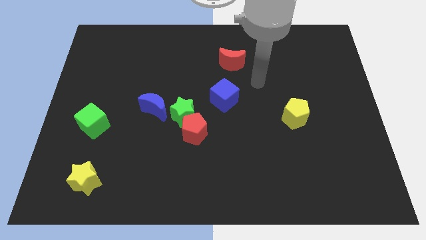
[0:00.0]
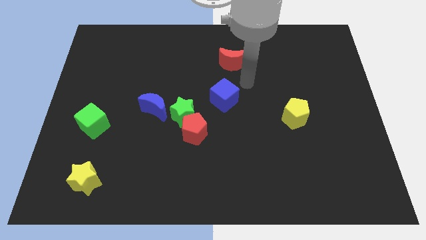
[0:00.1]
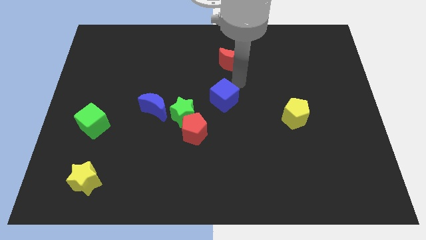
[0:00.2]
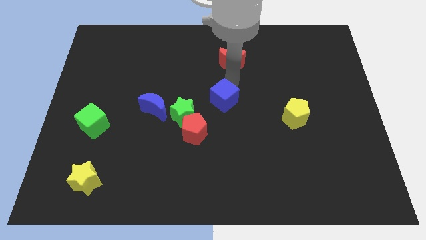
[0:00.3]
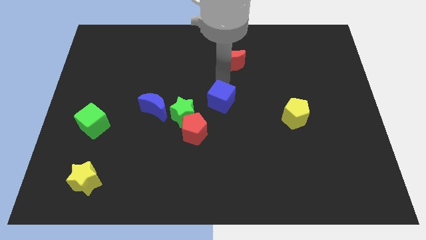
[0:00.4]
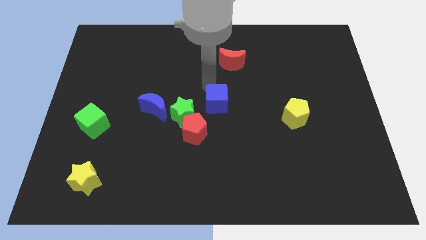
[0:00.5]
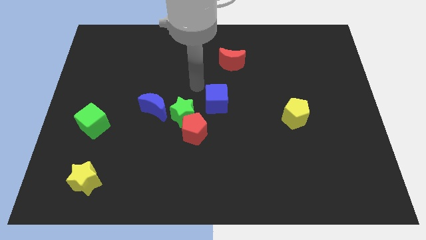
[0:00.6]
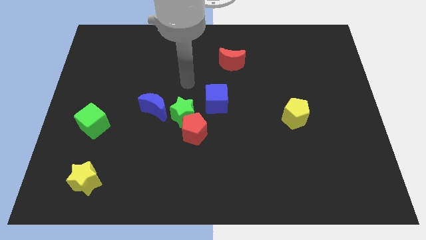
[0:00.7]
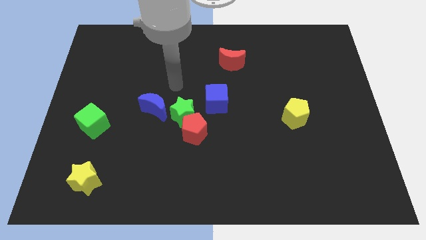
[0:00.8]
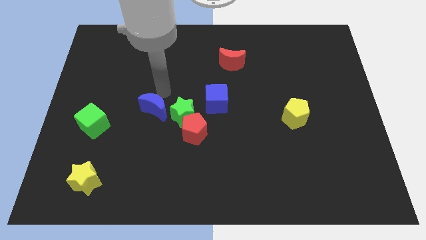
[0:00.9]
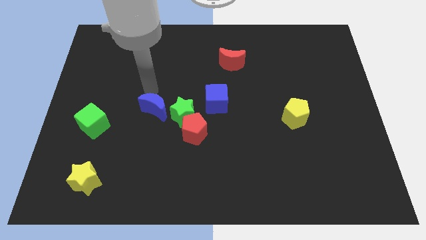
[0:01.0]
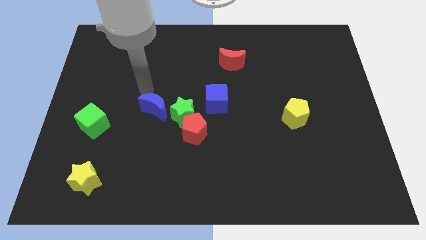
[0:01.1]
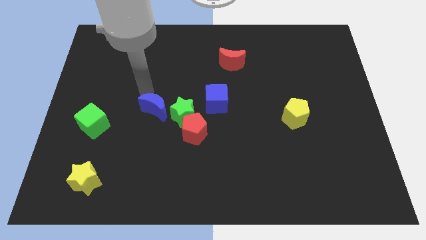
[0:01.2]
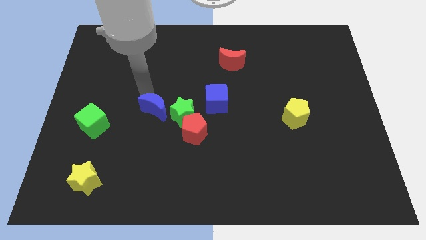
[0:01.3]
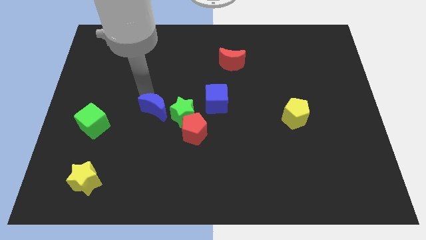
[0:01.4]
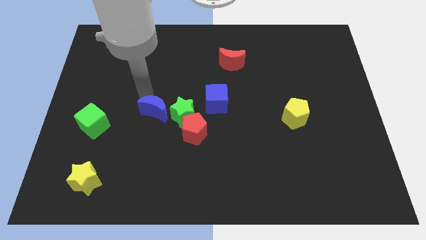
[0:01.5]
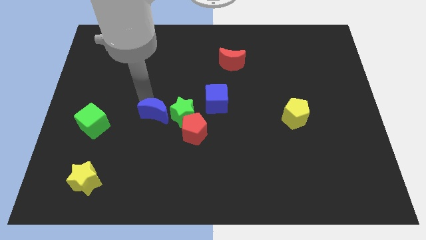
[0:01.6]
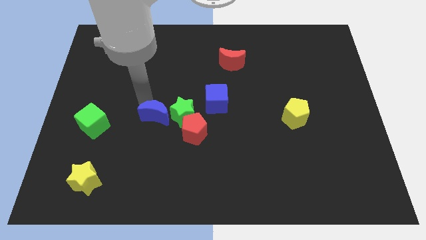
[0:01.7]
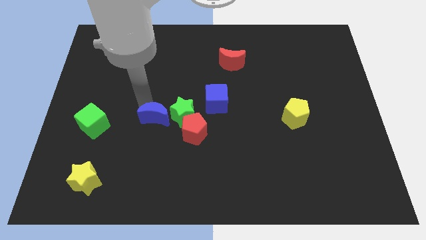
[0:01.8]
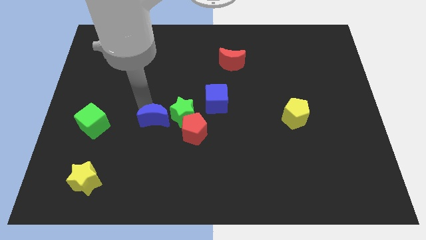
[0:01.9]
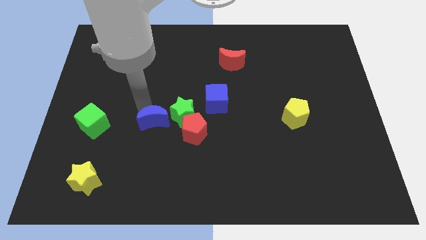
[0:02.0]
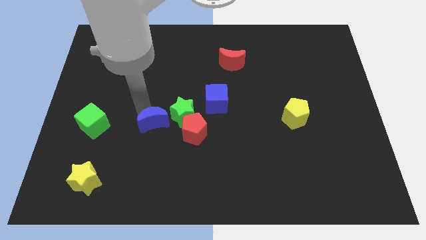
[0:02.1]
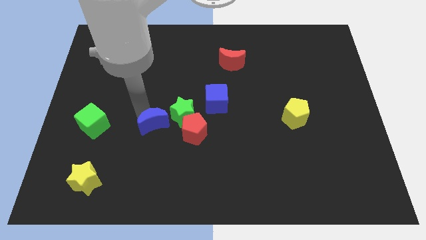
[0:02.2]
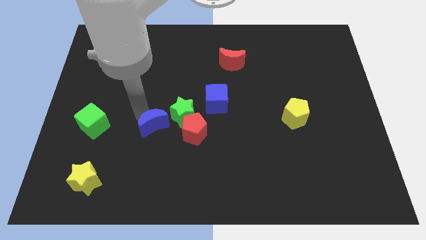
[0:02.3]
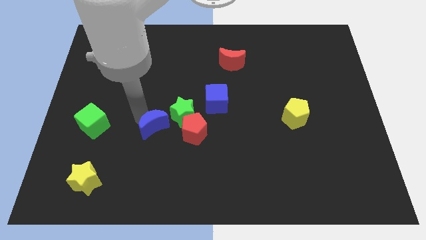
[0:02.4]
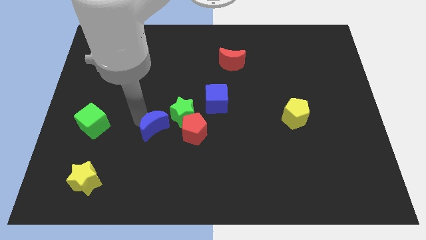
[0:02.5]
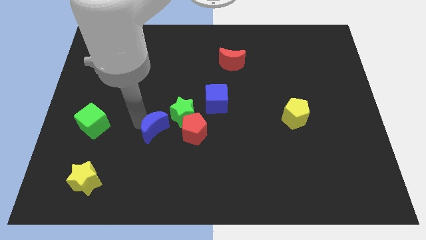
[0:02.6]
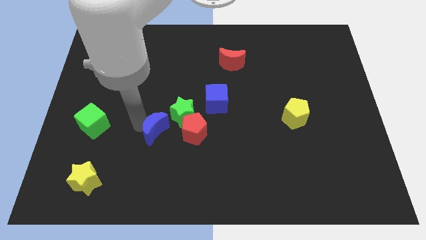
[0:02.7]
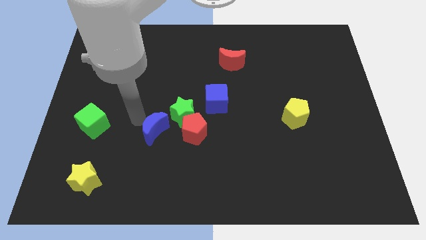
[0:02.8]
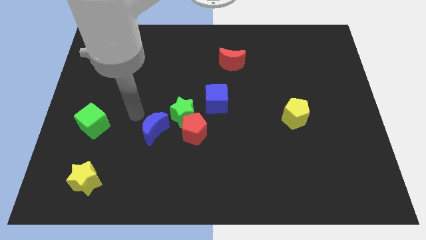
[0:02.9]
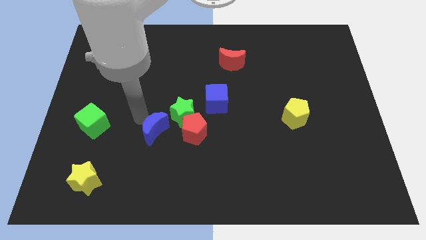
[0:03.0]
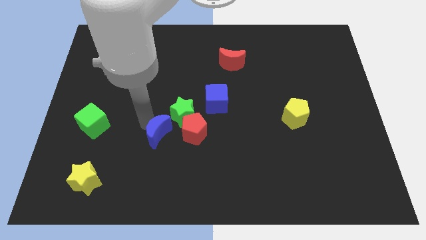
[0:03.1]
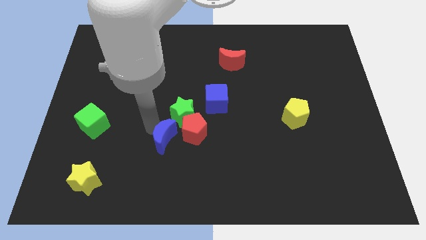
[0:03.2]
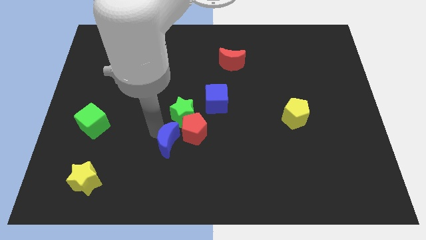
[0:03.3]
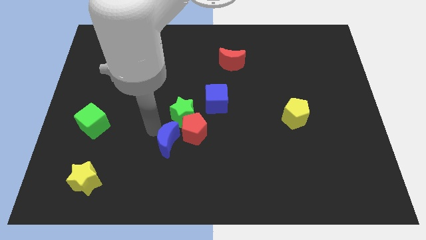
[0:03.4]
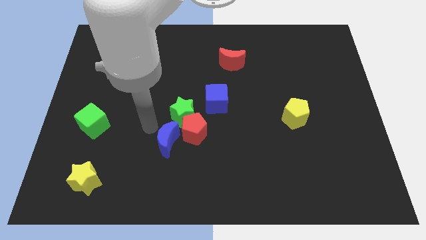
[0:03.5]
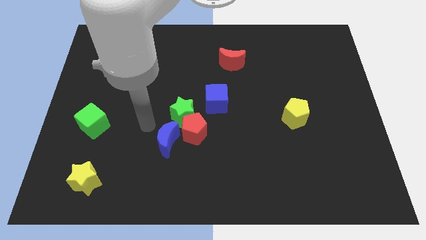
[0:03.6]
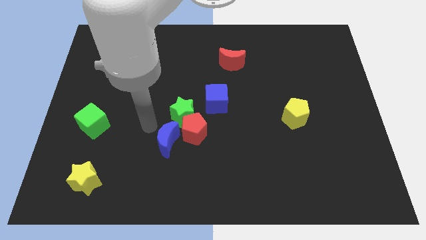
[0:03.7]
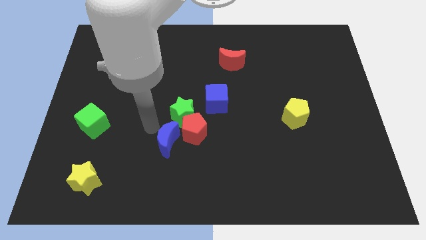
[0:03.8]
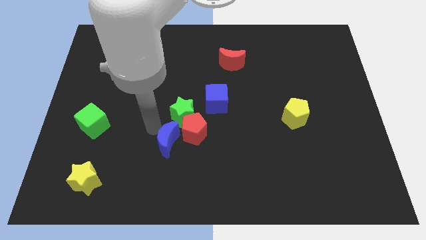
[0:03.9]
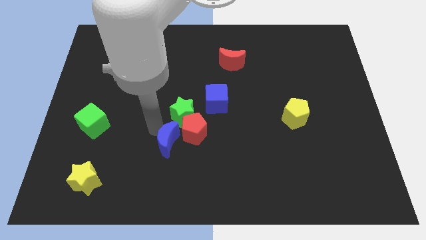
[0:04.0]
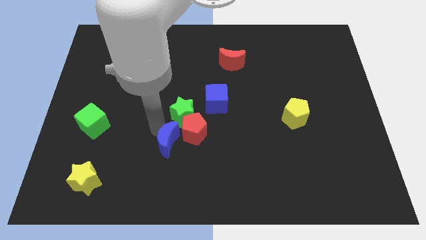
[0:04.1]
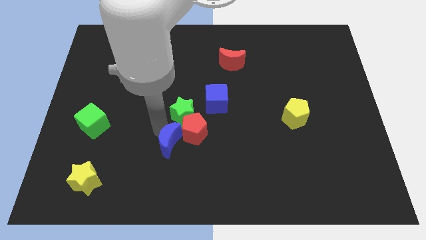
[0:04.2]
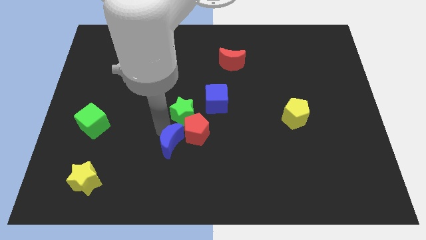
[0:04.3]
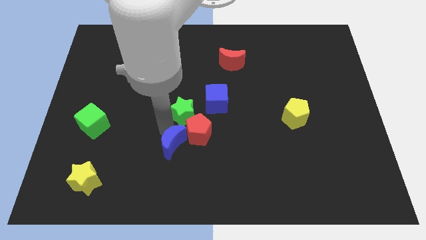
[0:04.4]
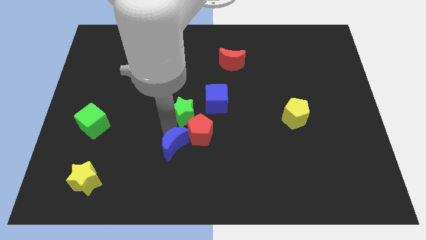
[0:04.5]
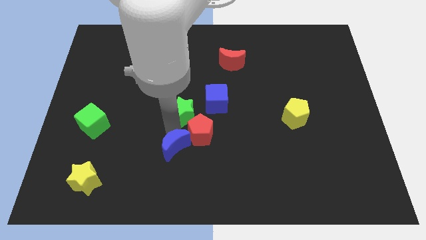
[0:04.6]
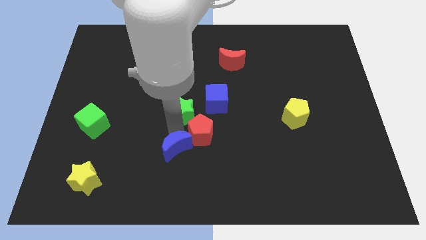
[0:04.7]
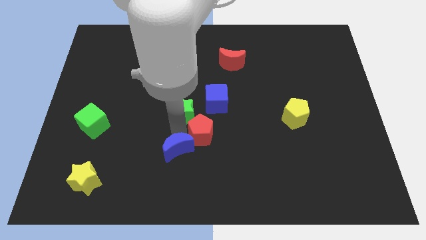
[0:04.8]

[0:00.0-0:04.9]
move the blue moon below the red pentagon

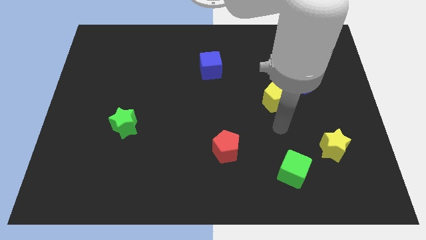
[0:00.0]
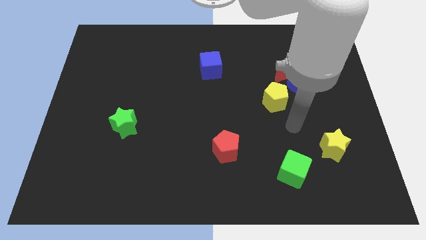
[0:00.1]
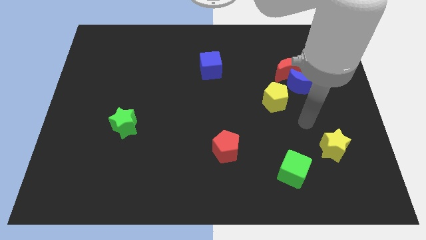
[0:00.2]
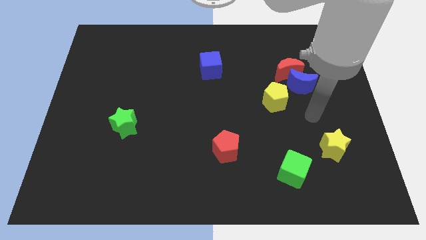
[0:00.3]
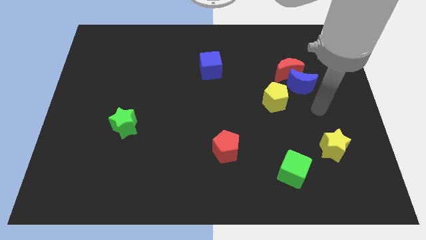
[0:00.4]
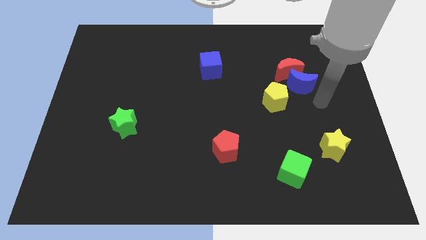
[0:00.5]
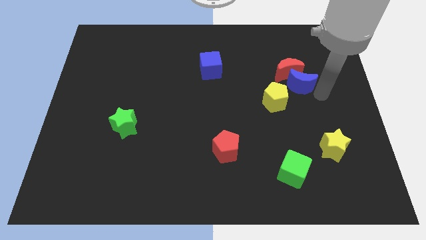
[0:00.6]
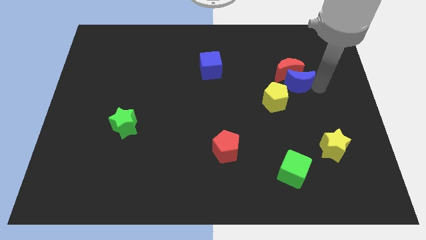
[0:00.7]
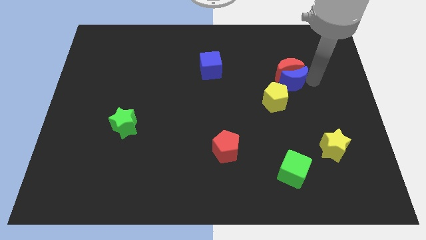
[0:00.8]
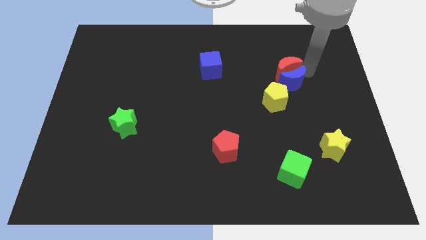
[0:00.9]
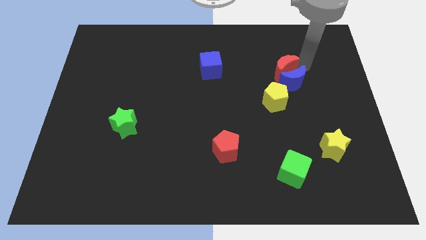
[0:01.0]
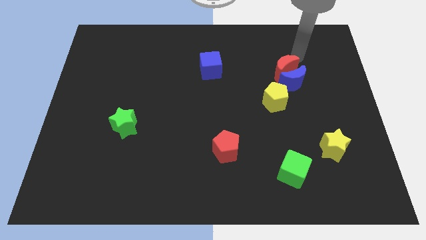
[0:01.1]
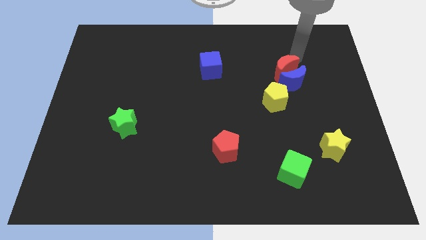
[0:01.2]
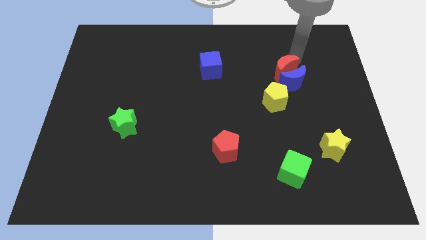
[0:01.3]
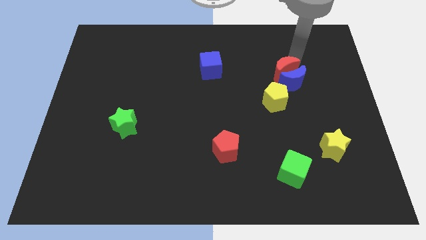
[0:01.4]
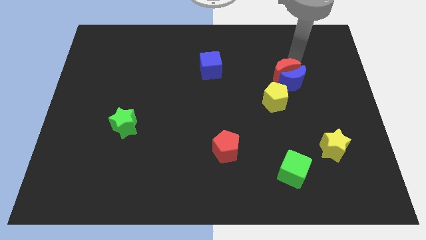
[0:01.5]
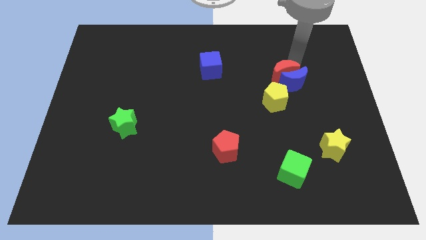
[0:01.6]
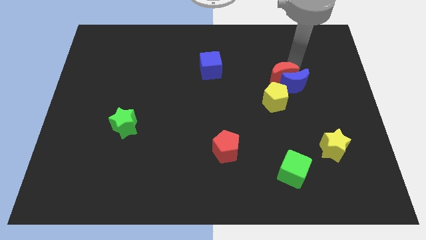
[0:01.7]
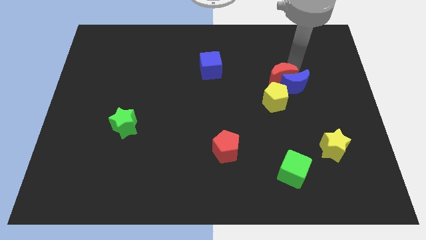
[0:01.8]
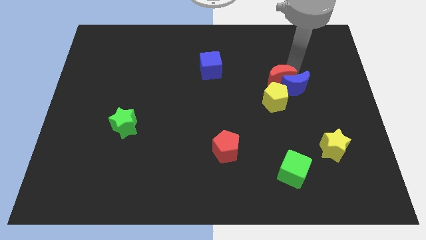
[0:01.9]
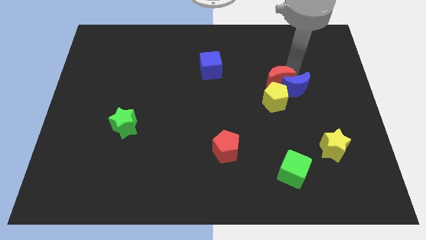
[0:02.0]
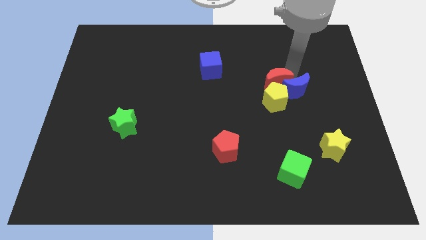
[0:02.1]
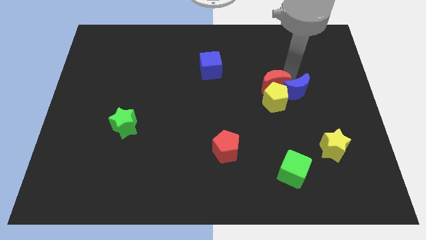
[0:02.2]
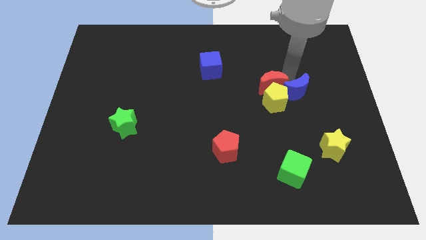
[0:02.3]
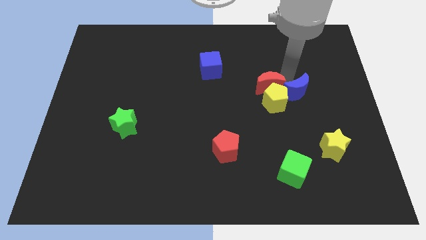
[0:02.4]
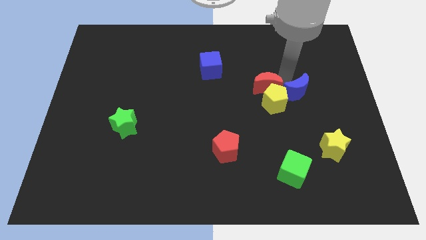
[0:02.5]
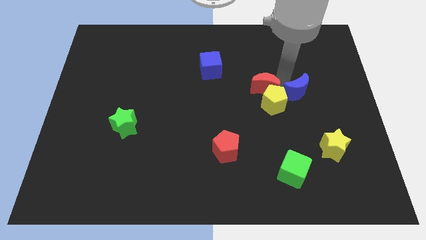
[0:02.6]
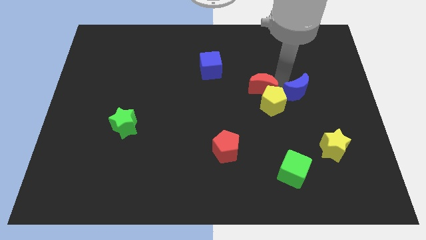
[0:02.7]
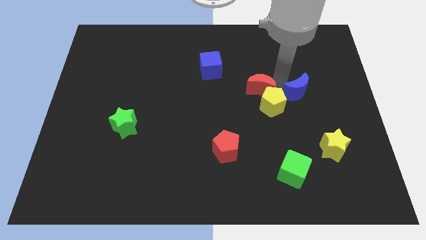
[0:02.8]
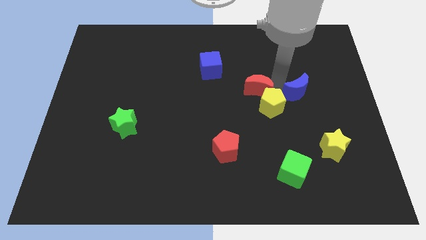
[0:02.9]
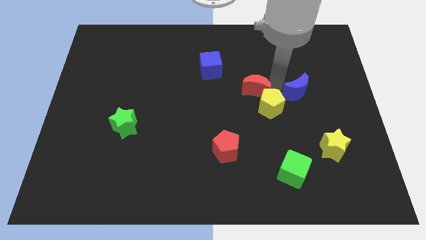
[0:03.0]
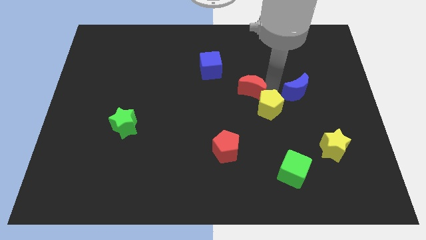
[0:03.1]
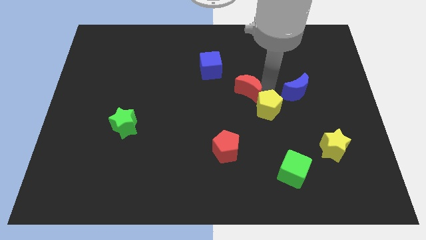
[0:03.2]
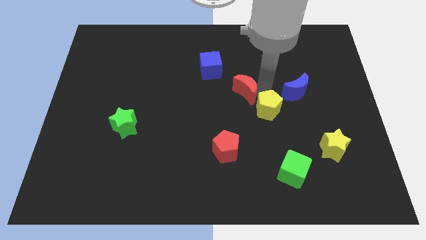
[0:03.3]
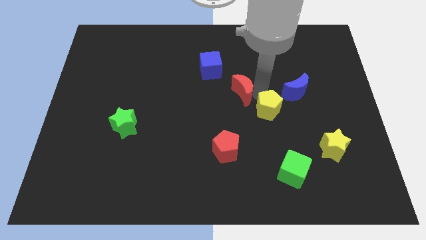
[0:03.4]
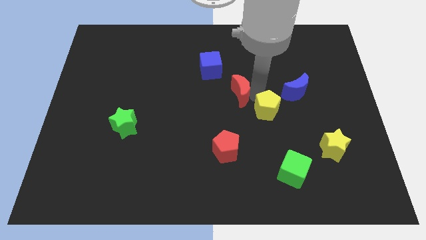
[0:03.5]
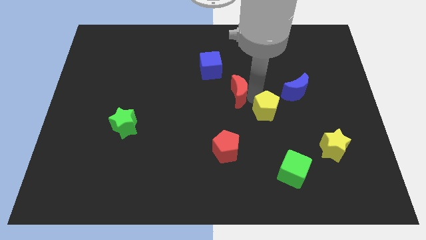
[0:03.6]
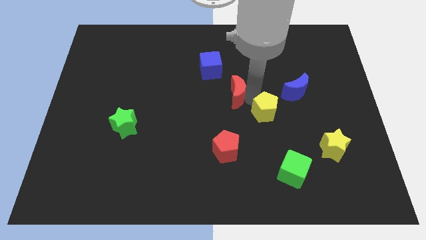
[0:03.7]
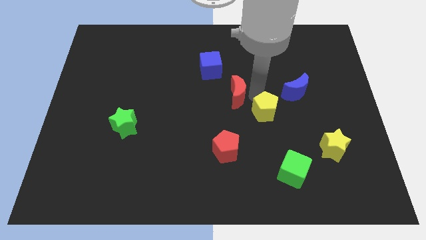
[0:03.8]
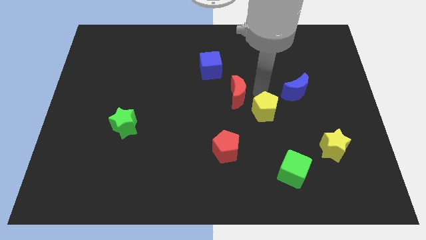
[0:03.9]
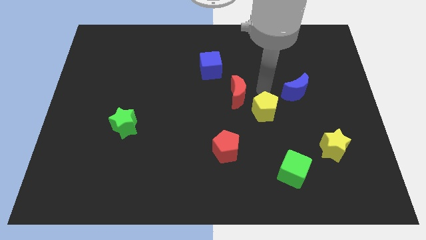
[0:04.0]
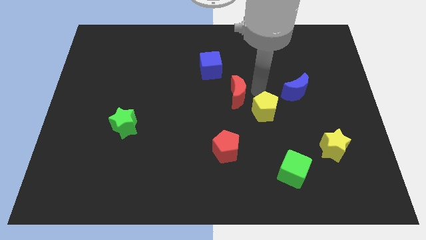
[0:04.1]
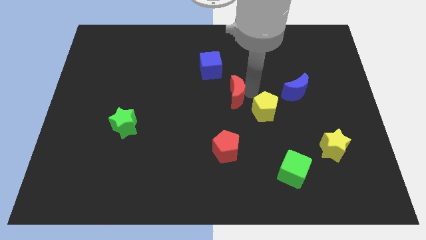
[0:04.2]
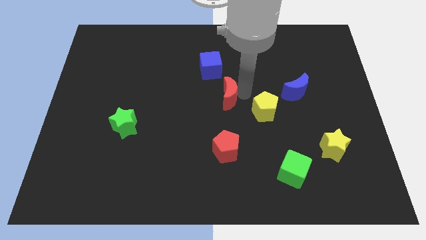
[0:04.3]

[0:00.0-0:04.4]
put the red moon to the bottom side of the blue cube
